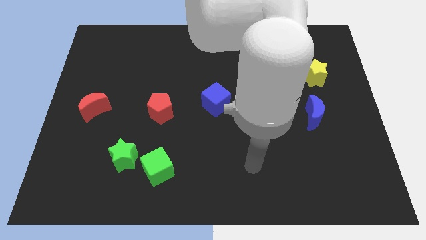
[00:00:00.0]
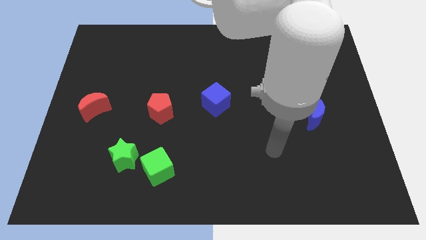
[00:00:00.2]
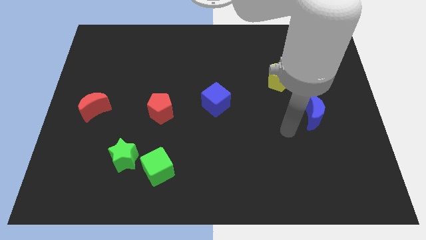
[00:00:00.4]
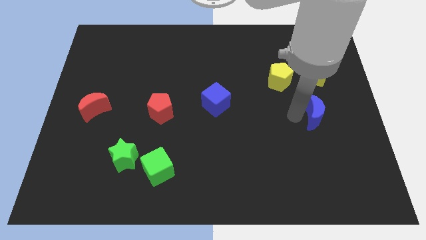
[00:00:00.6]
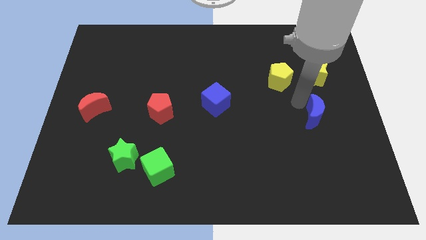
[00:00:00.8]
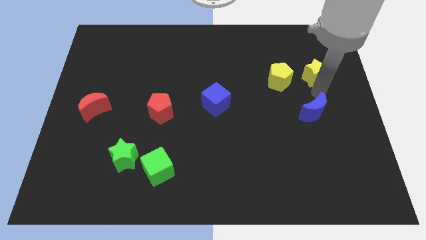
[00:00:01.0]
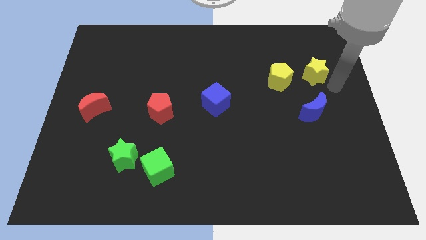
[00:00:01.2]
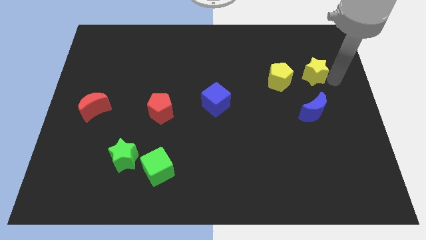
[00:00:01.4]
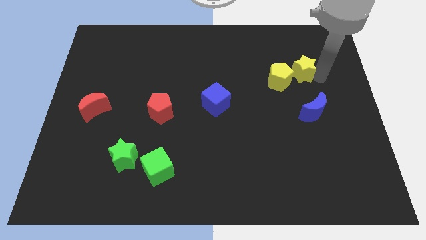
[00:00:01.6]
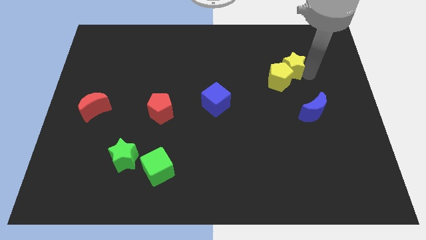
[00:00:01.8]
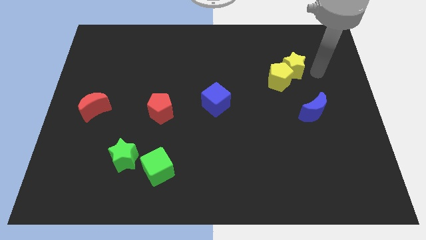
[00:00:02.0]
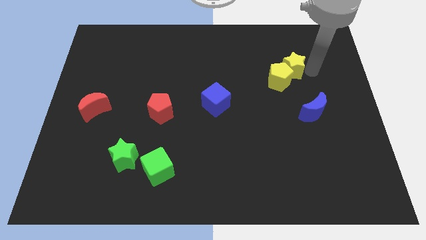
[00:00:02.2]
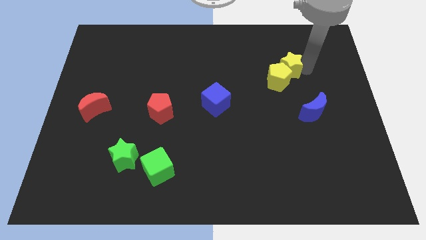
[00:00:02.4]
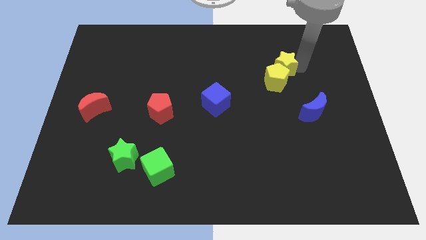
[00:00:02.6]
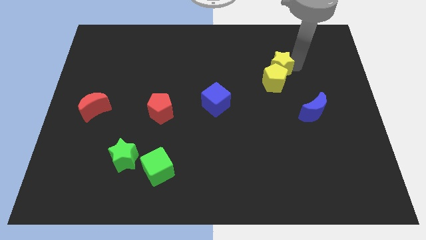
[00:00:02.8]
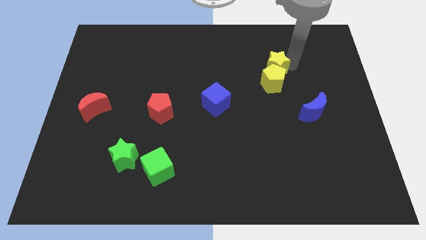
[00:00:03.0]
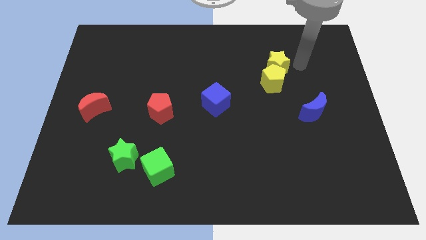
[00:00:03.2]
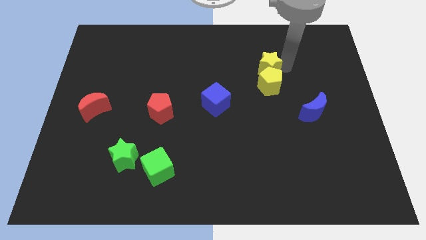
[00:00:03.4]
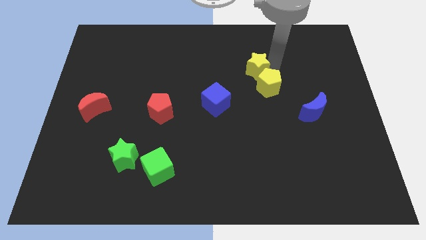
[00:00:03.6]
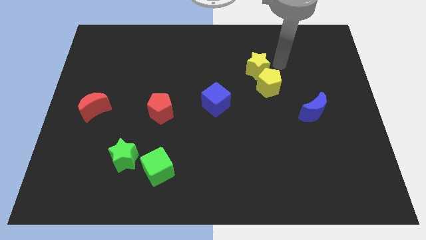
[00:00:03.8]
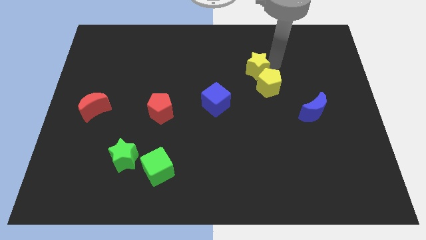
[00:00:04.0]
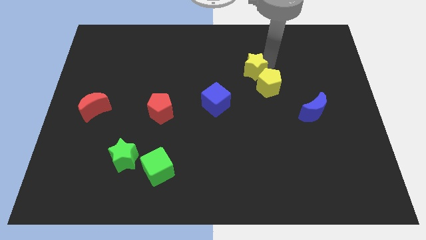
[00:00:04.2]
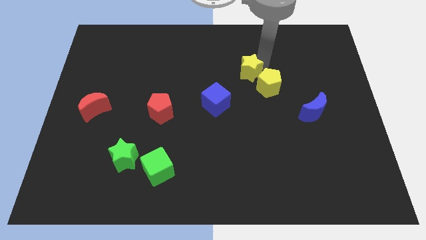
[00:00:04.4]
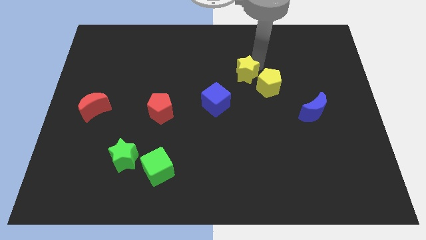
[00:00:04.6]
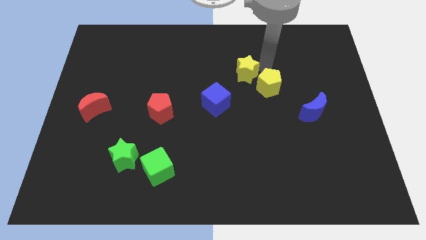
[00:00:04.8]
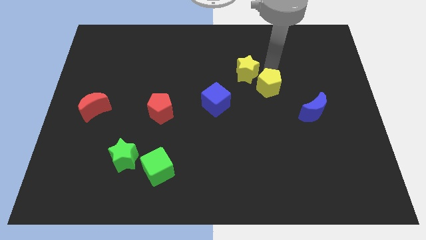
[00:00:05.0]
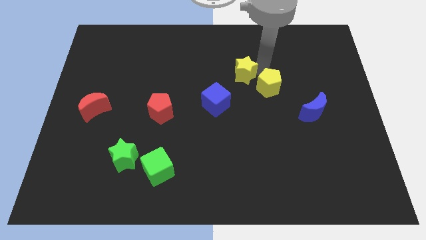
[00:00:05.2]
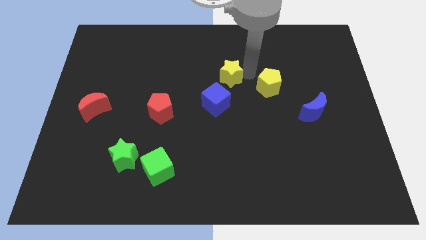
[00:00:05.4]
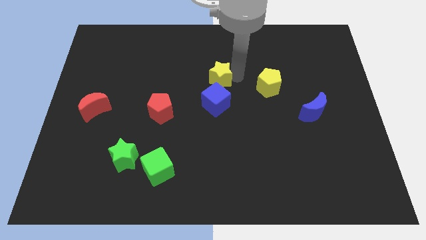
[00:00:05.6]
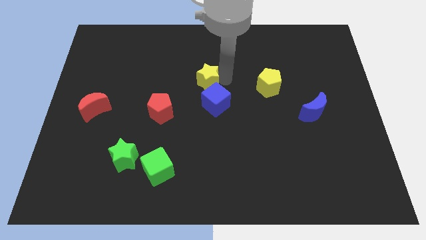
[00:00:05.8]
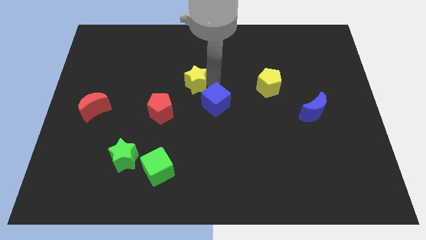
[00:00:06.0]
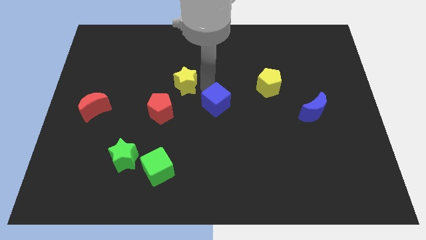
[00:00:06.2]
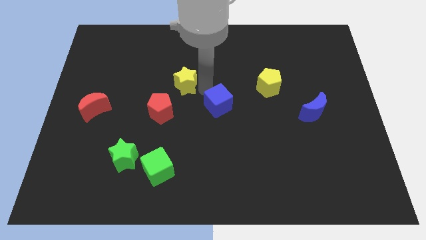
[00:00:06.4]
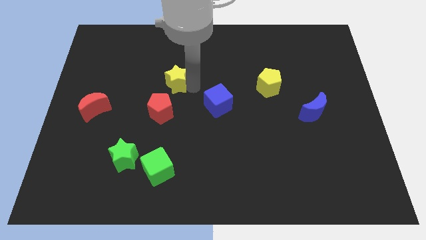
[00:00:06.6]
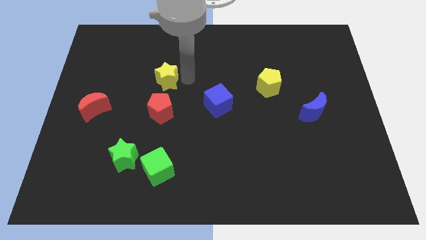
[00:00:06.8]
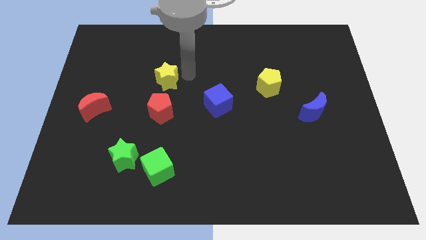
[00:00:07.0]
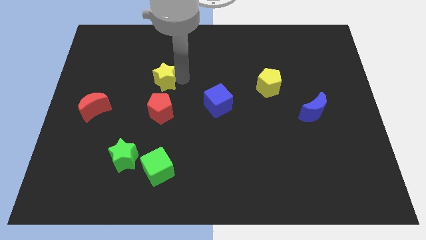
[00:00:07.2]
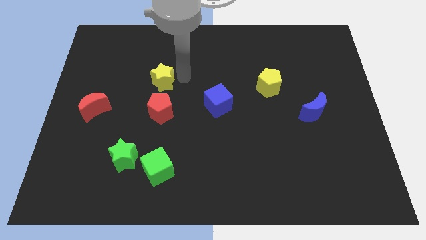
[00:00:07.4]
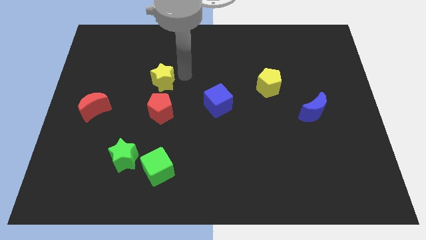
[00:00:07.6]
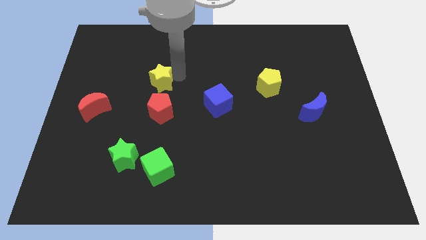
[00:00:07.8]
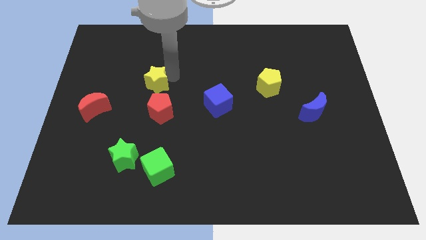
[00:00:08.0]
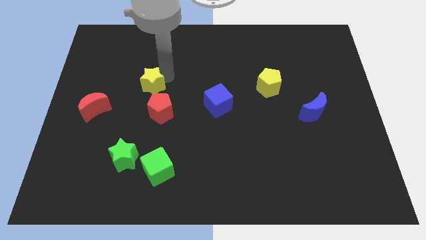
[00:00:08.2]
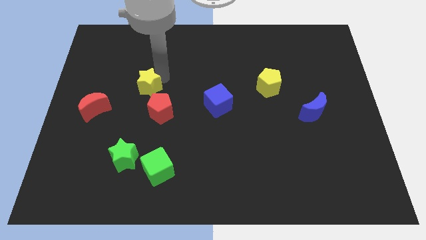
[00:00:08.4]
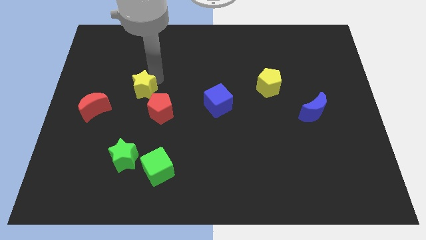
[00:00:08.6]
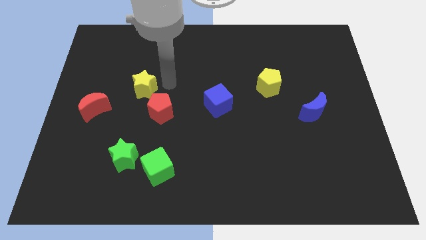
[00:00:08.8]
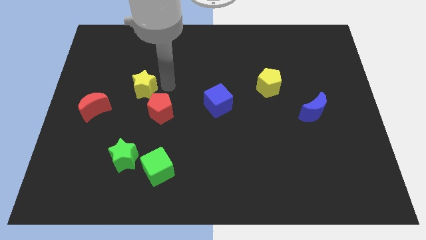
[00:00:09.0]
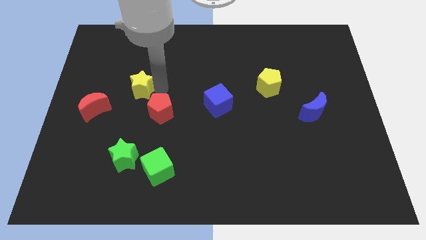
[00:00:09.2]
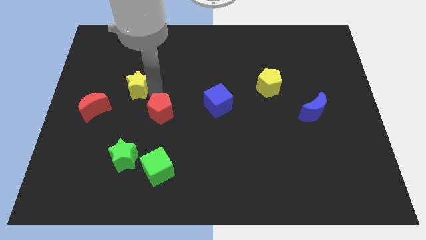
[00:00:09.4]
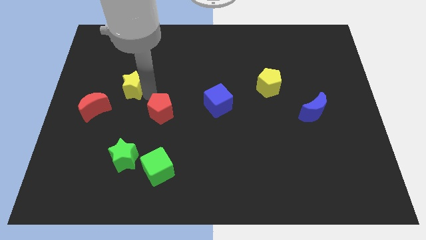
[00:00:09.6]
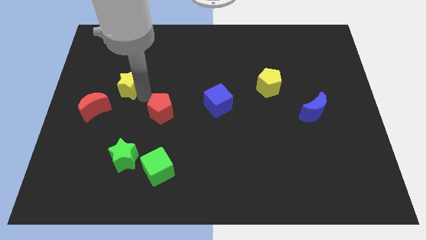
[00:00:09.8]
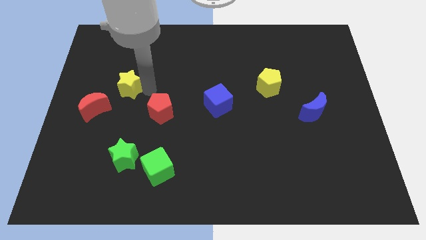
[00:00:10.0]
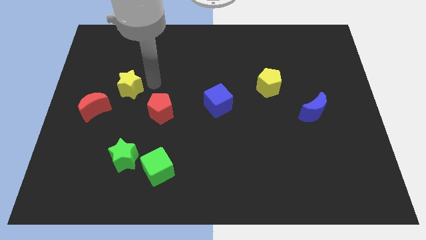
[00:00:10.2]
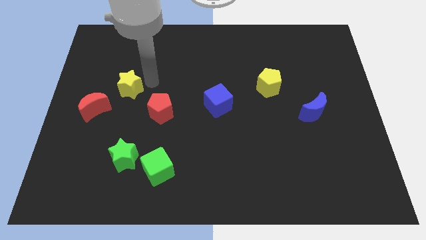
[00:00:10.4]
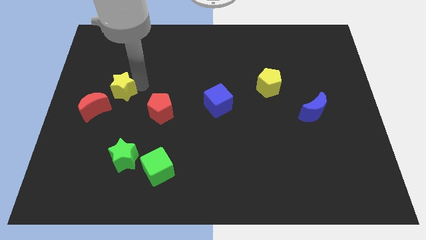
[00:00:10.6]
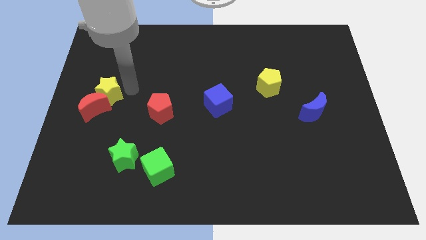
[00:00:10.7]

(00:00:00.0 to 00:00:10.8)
push the yellow star to the center left
